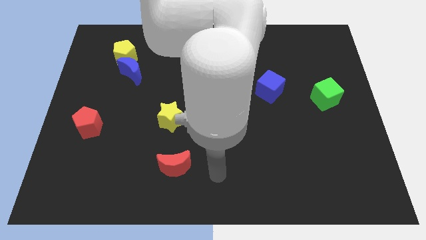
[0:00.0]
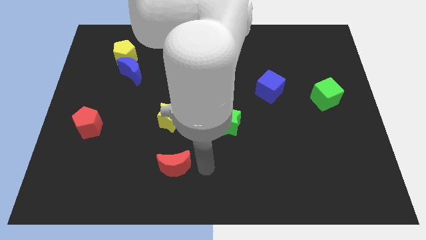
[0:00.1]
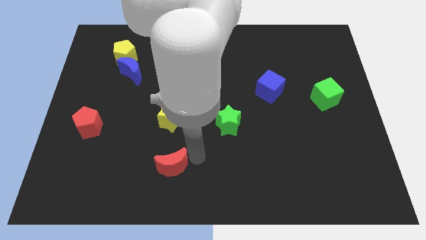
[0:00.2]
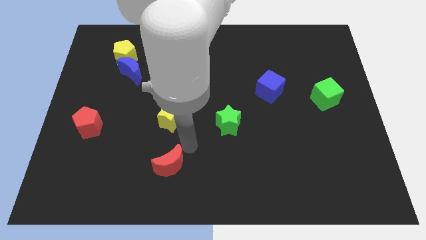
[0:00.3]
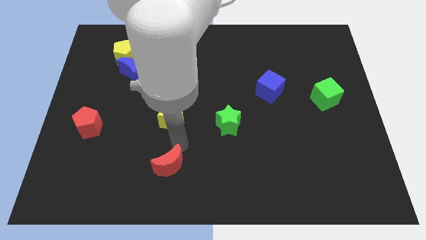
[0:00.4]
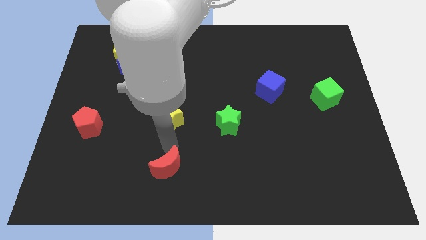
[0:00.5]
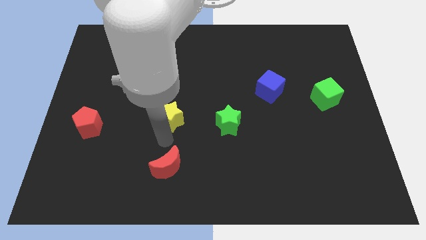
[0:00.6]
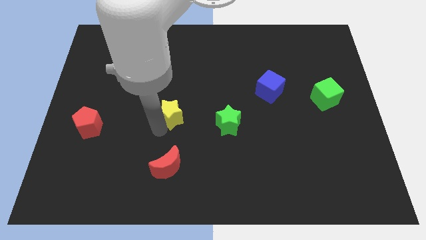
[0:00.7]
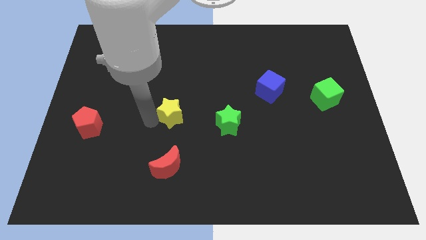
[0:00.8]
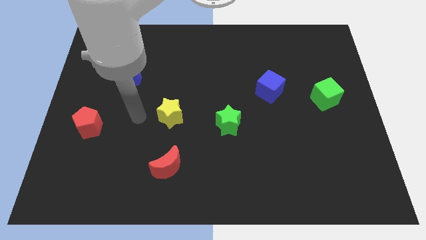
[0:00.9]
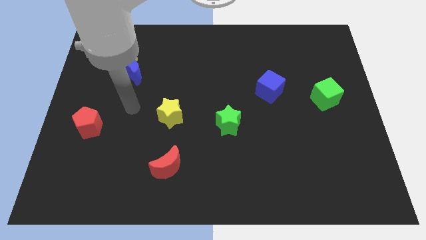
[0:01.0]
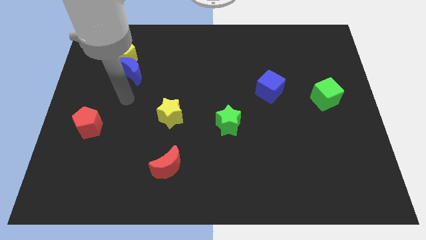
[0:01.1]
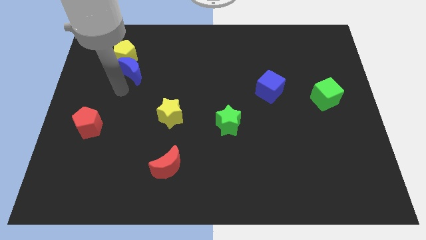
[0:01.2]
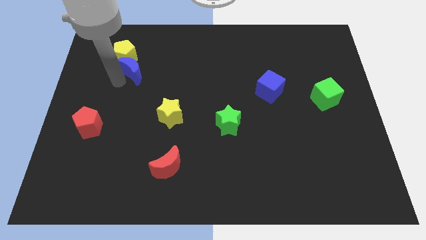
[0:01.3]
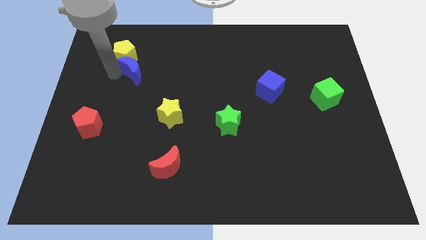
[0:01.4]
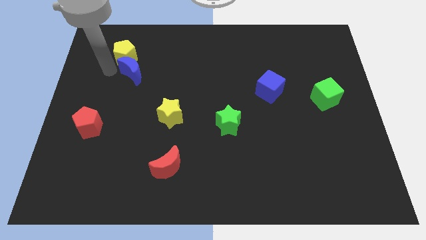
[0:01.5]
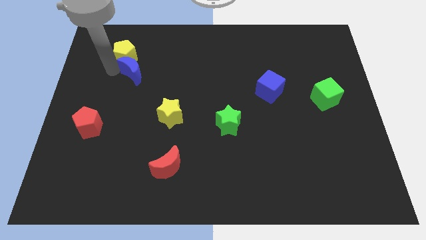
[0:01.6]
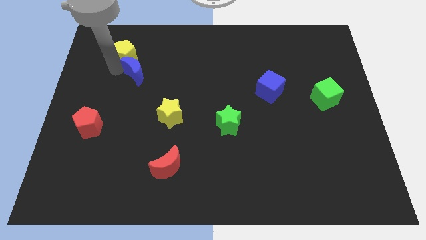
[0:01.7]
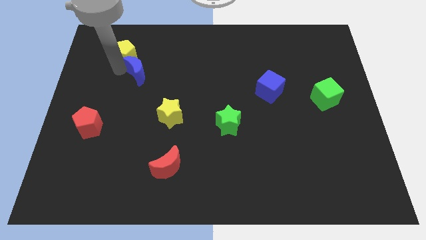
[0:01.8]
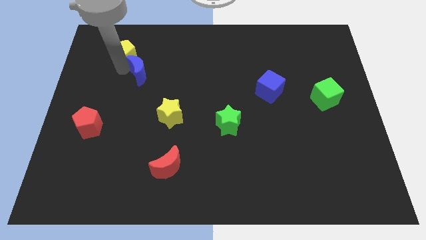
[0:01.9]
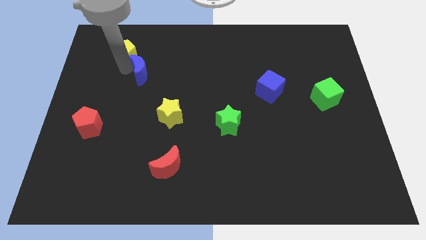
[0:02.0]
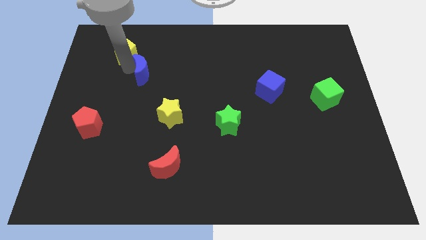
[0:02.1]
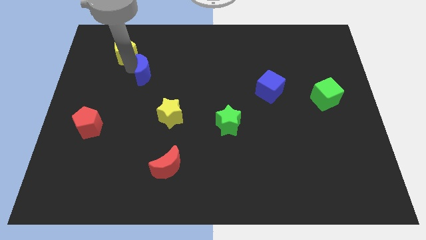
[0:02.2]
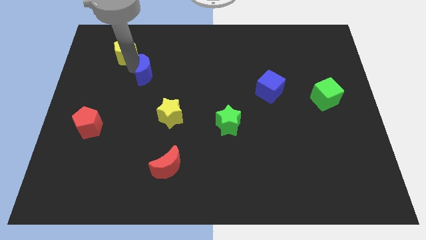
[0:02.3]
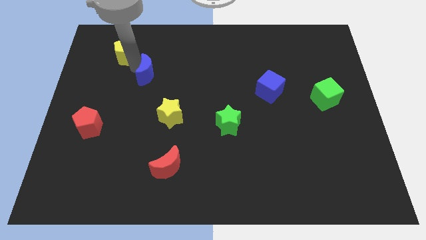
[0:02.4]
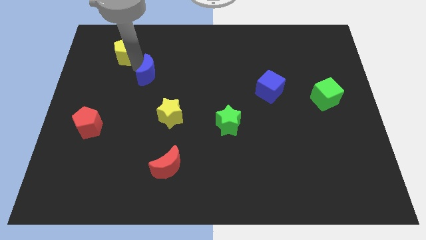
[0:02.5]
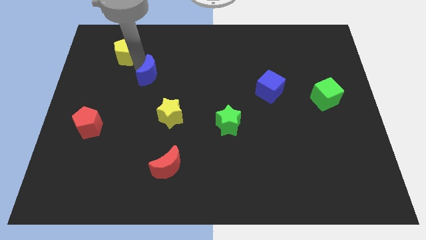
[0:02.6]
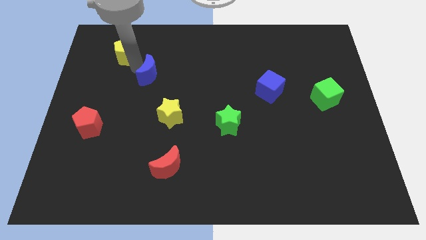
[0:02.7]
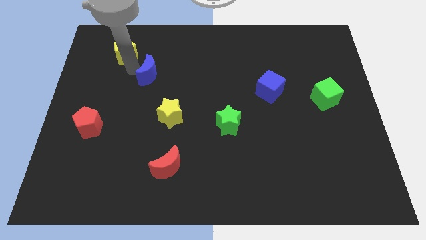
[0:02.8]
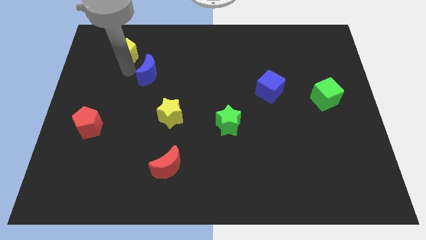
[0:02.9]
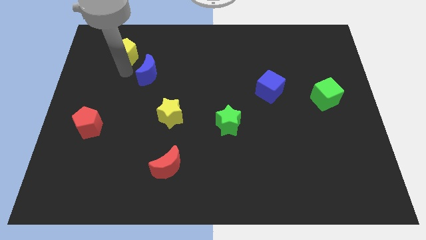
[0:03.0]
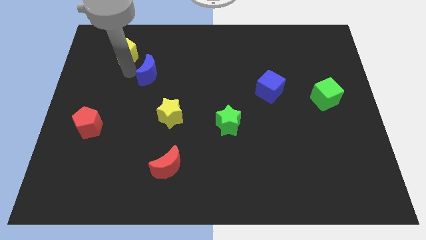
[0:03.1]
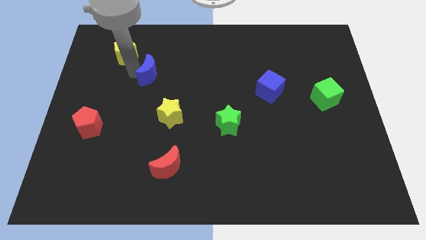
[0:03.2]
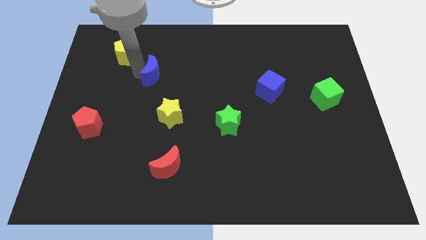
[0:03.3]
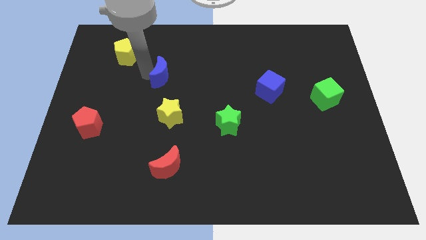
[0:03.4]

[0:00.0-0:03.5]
slide the blue moon a bit right

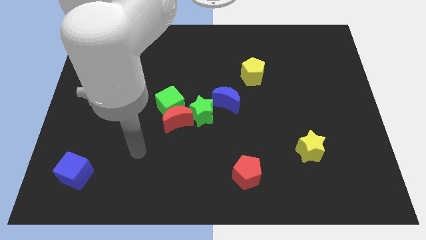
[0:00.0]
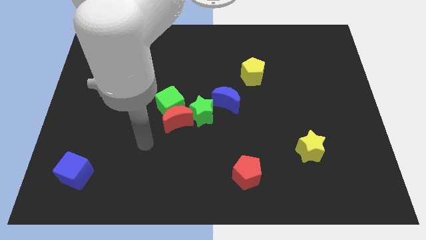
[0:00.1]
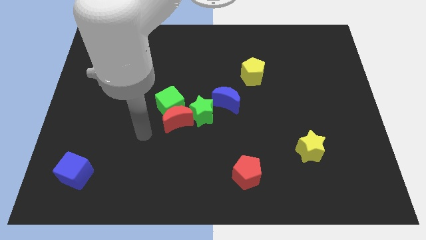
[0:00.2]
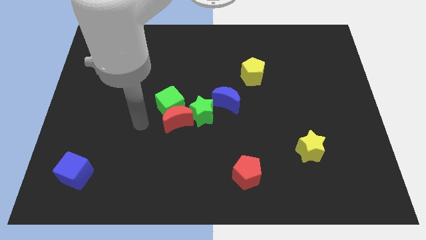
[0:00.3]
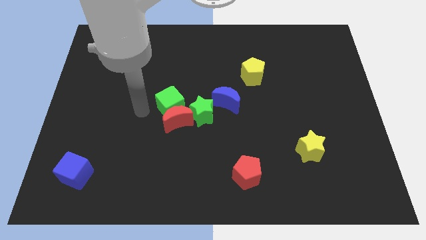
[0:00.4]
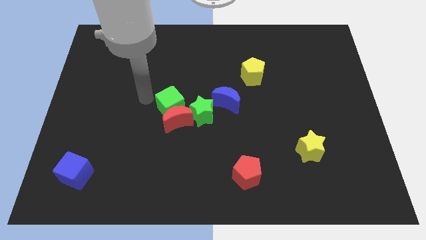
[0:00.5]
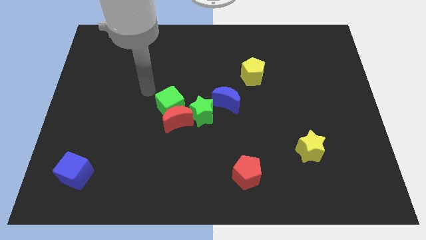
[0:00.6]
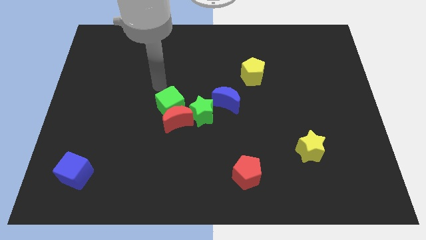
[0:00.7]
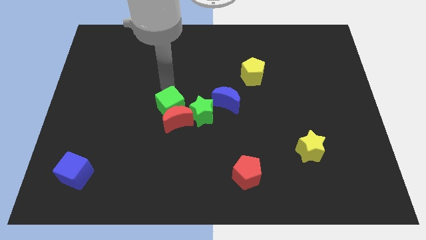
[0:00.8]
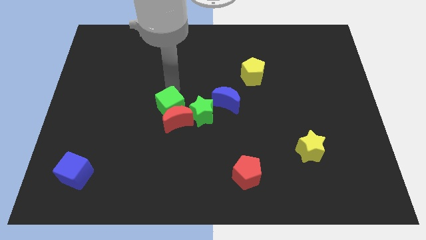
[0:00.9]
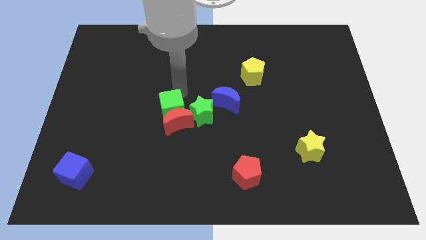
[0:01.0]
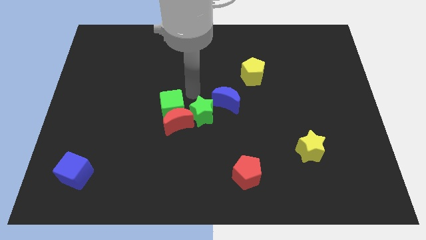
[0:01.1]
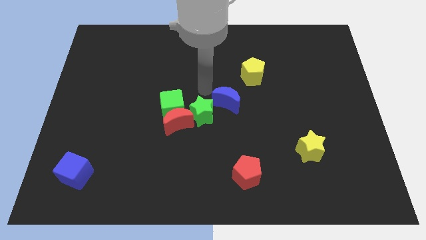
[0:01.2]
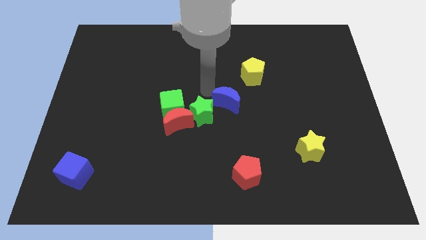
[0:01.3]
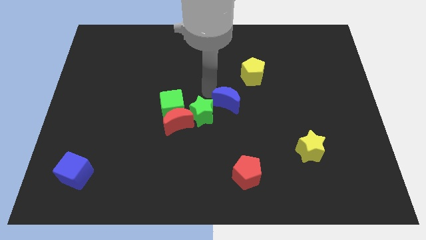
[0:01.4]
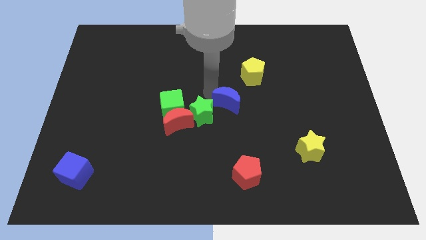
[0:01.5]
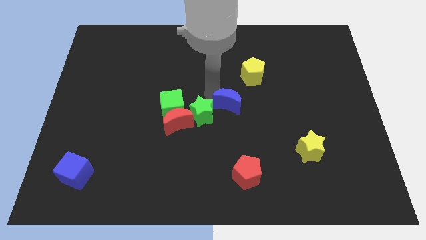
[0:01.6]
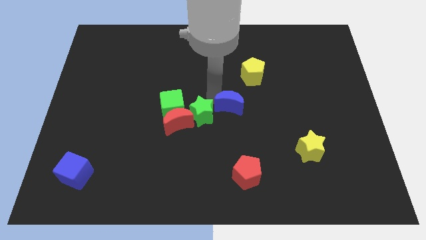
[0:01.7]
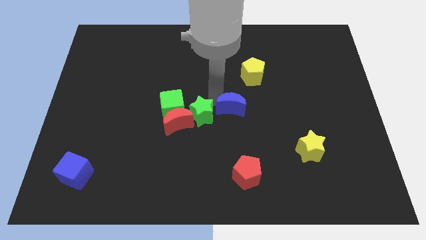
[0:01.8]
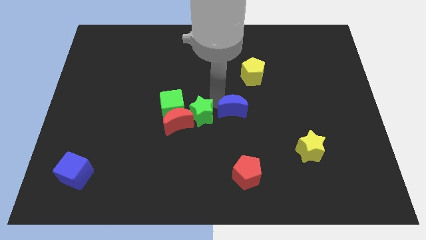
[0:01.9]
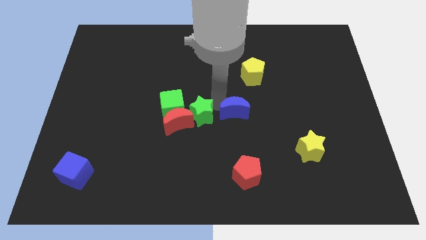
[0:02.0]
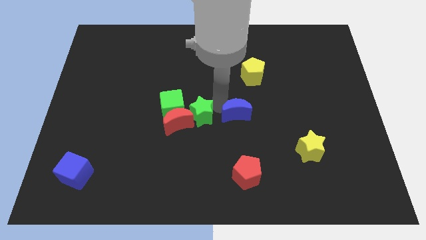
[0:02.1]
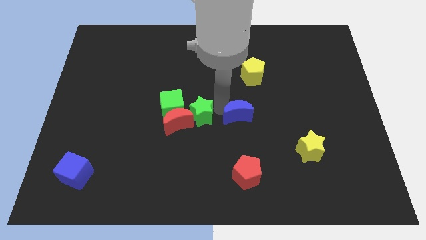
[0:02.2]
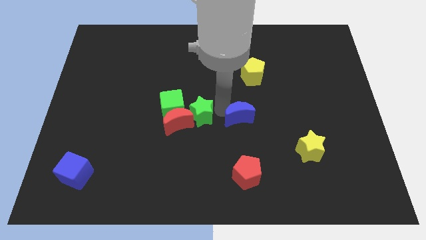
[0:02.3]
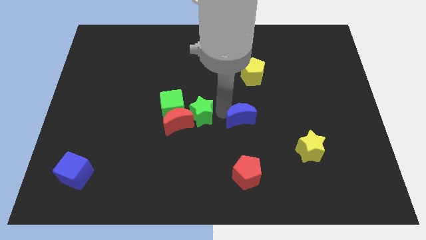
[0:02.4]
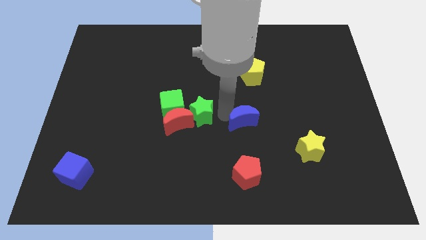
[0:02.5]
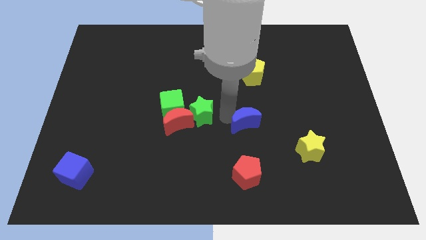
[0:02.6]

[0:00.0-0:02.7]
slightly push the blue moon downwards and then right

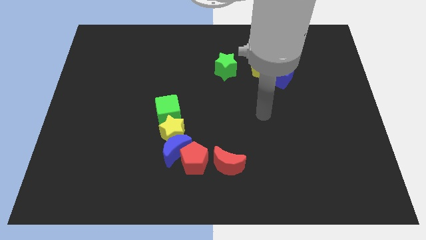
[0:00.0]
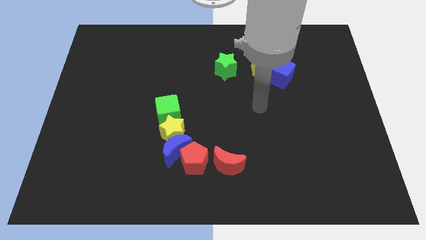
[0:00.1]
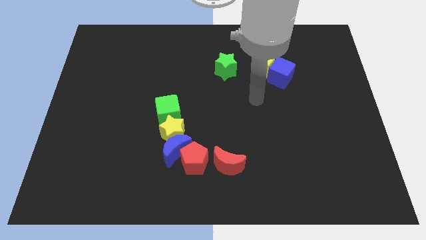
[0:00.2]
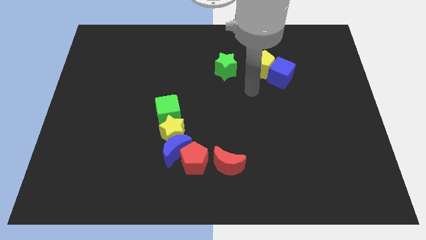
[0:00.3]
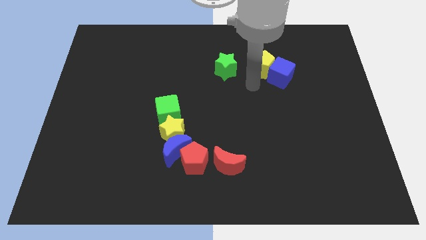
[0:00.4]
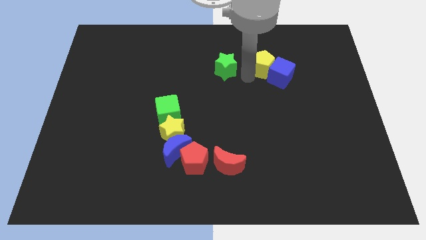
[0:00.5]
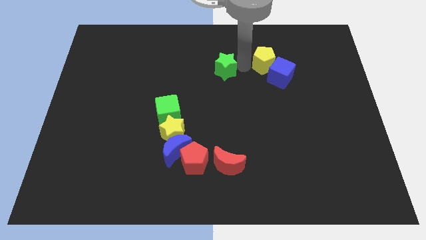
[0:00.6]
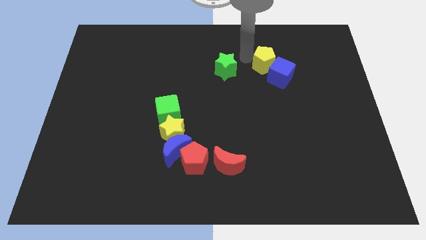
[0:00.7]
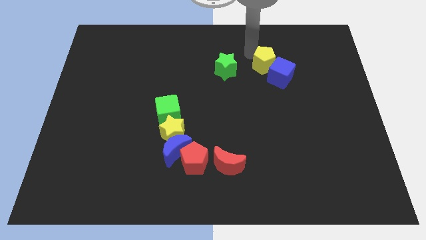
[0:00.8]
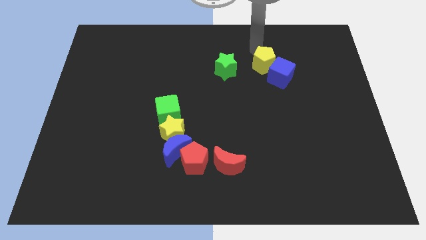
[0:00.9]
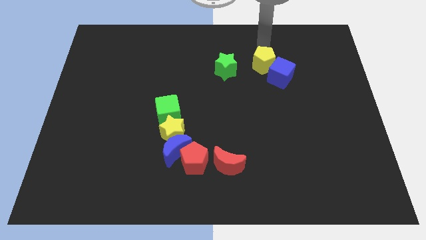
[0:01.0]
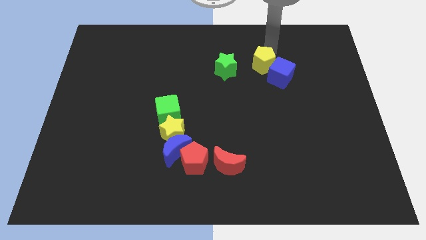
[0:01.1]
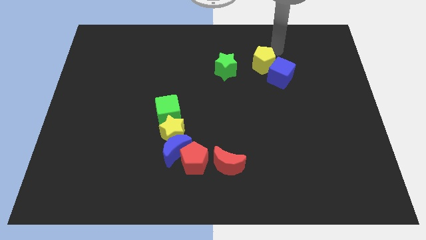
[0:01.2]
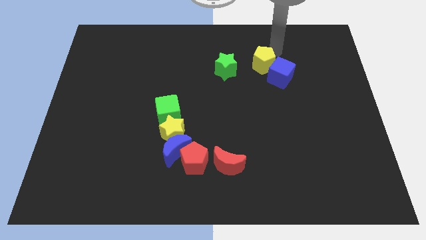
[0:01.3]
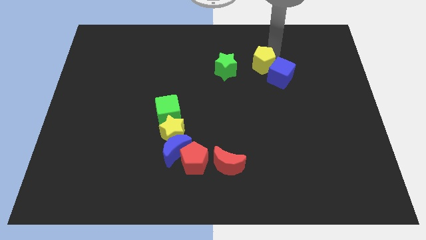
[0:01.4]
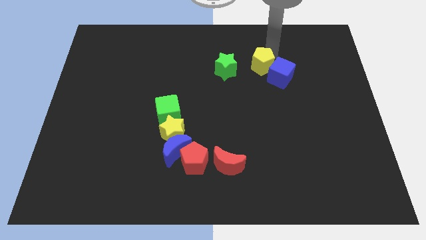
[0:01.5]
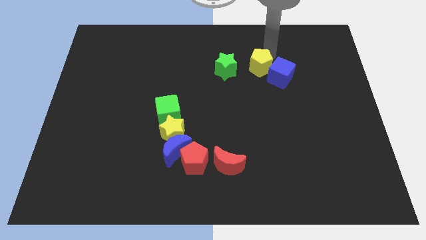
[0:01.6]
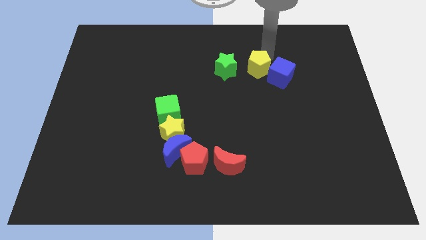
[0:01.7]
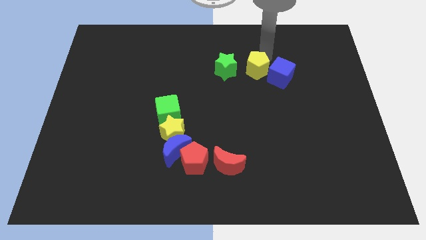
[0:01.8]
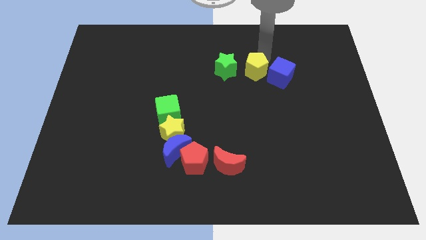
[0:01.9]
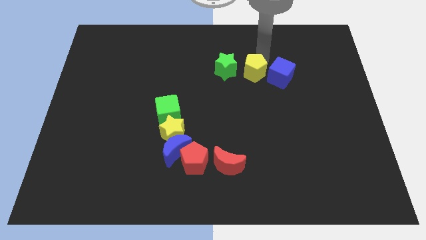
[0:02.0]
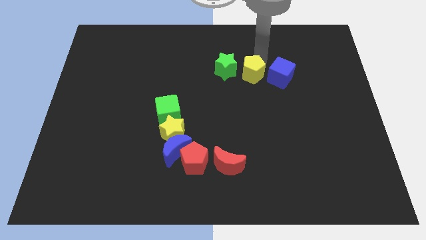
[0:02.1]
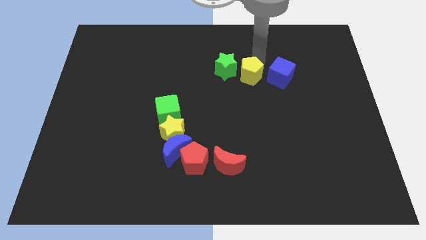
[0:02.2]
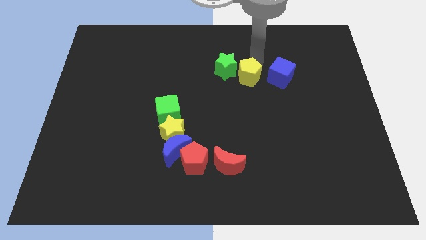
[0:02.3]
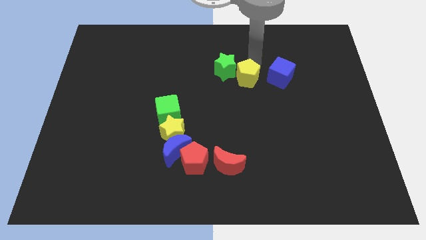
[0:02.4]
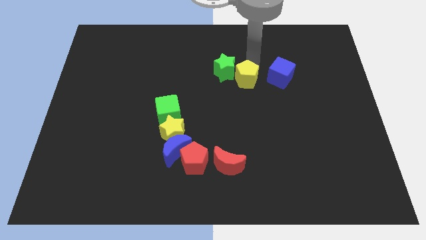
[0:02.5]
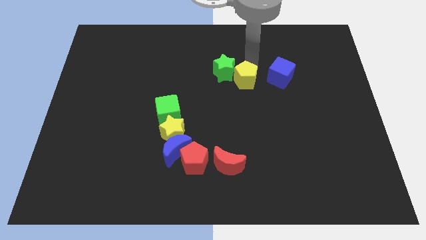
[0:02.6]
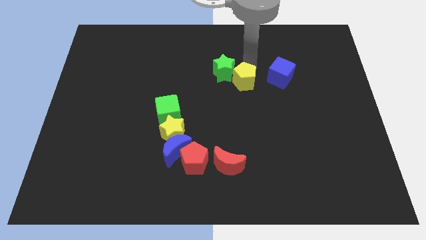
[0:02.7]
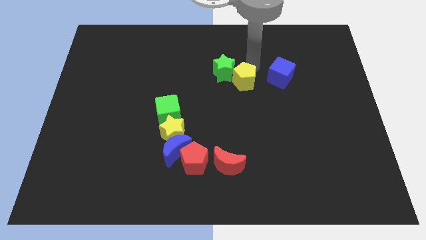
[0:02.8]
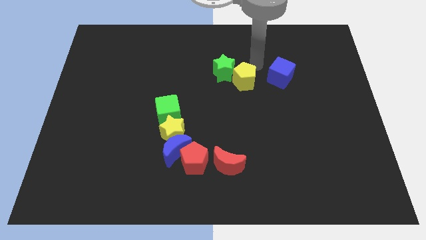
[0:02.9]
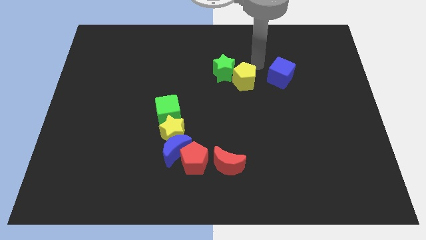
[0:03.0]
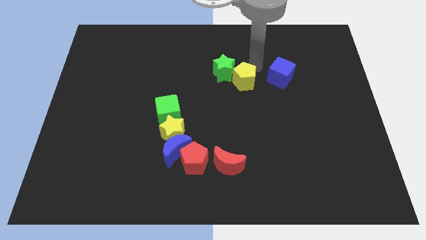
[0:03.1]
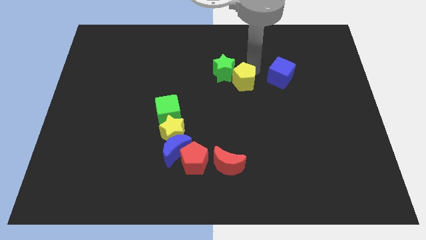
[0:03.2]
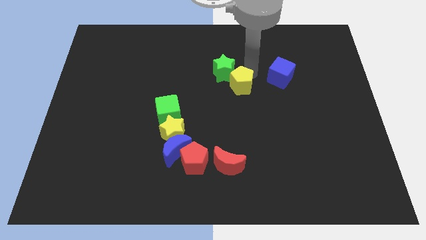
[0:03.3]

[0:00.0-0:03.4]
push the yellow pentagon diagonally down and to the left somewhat
